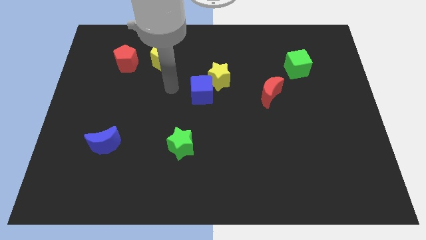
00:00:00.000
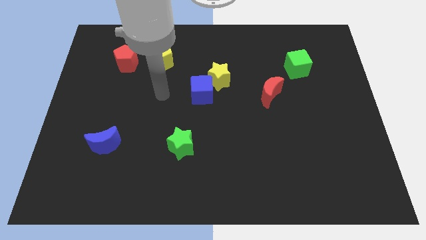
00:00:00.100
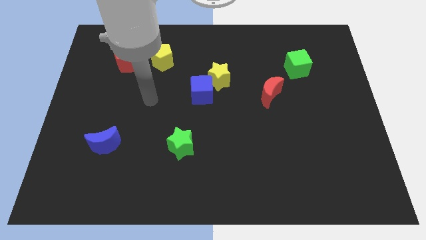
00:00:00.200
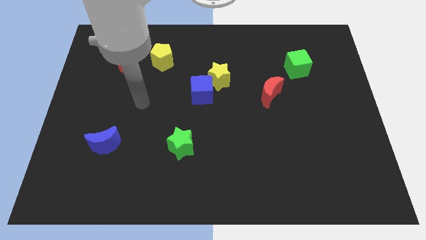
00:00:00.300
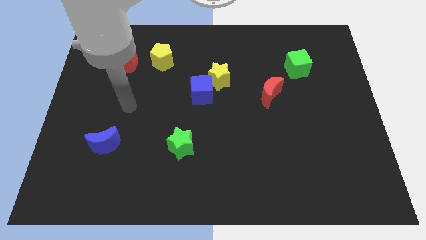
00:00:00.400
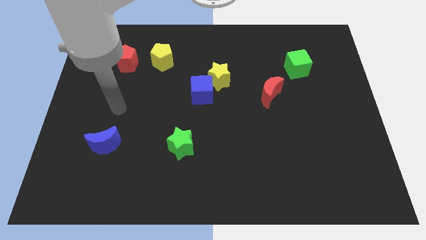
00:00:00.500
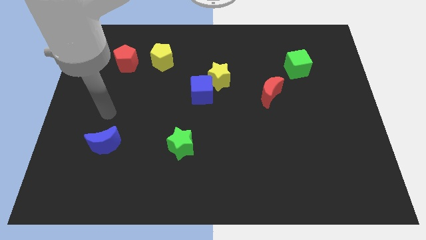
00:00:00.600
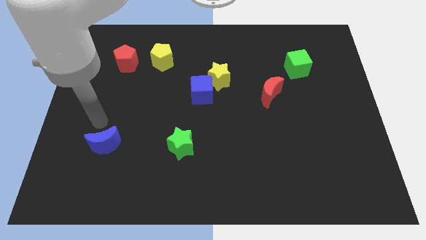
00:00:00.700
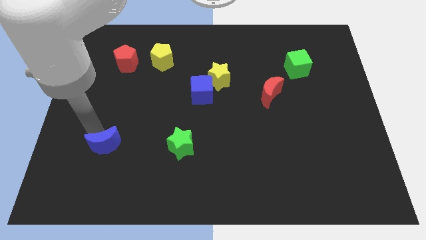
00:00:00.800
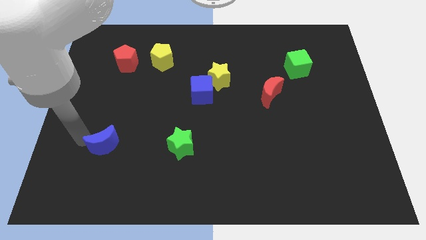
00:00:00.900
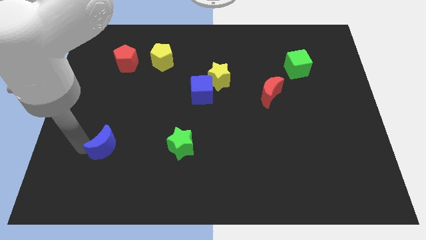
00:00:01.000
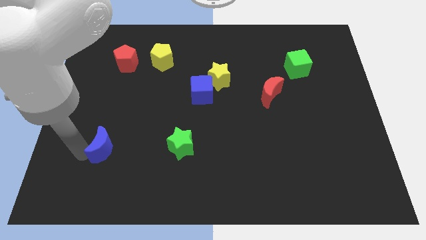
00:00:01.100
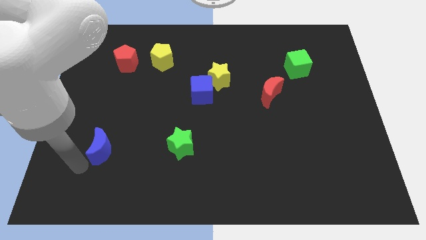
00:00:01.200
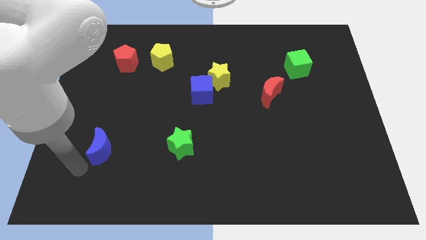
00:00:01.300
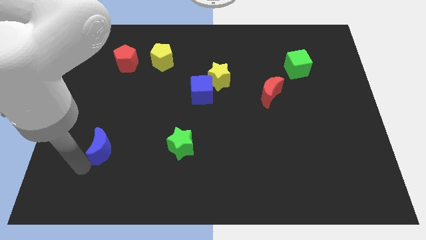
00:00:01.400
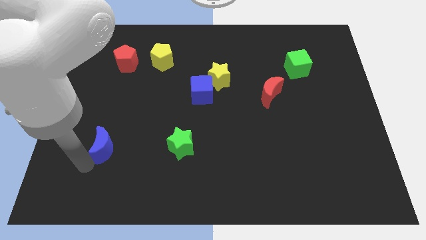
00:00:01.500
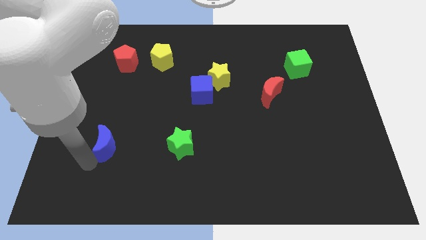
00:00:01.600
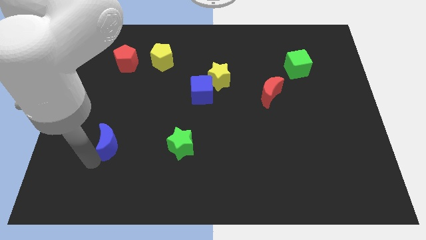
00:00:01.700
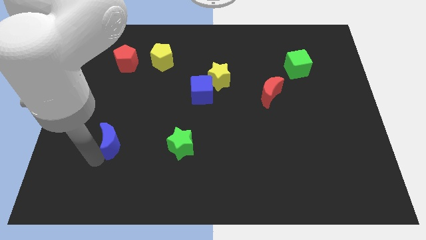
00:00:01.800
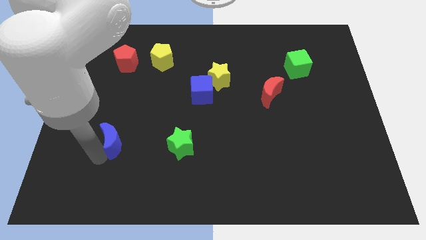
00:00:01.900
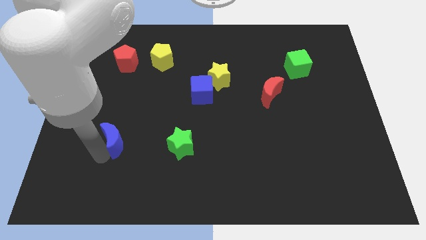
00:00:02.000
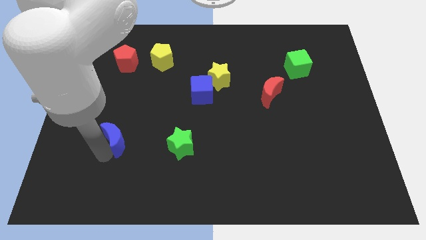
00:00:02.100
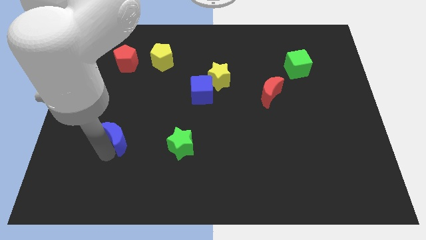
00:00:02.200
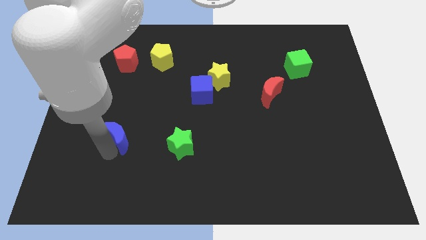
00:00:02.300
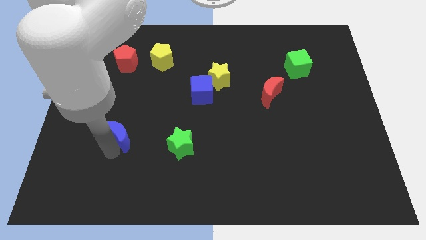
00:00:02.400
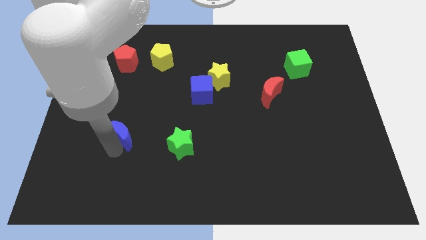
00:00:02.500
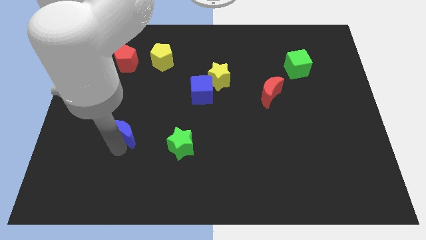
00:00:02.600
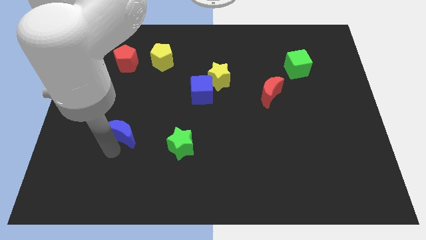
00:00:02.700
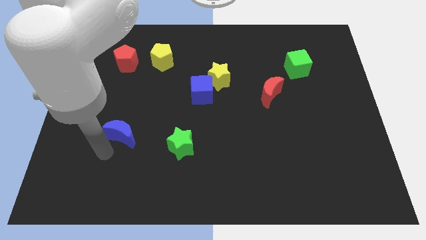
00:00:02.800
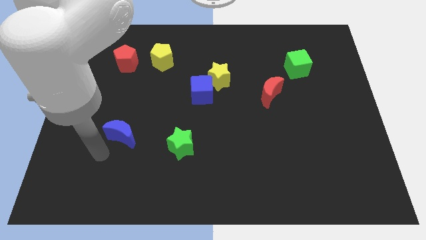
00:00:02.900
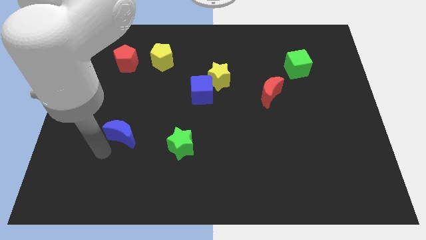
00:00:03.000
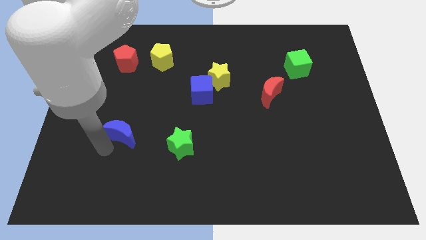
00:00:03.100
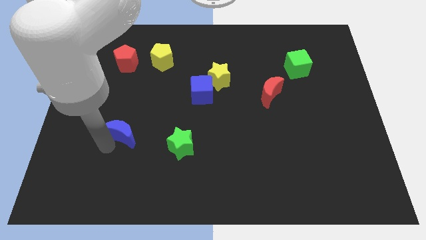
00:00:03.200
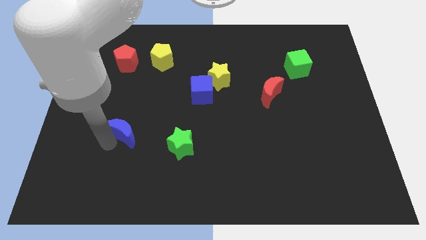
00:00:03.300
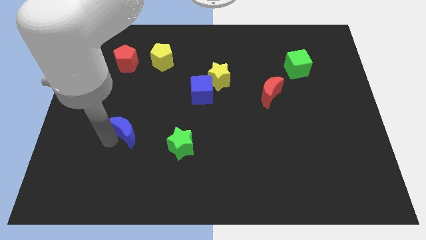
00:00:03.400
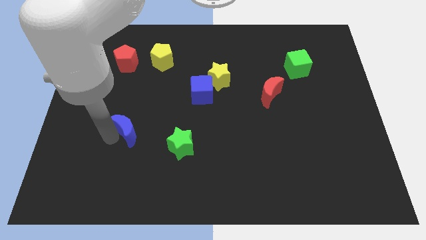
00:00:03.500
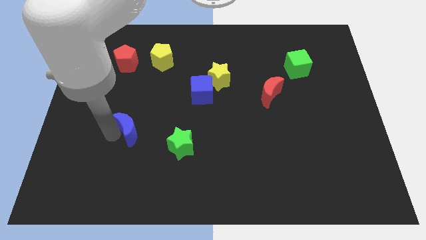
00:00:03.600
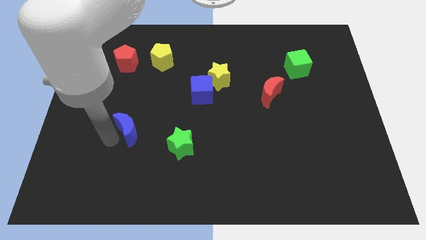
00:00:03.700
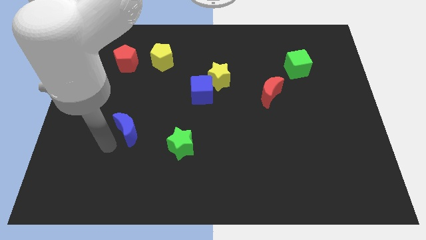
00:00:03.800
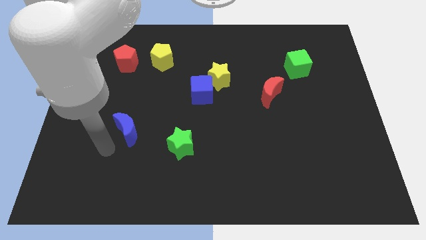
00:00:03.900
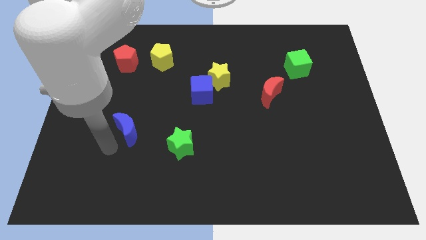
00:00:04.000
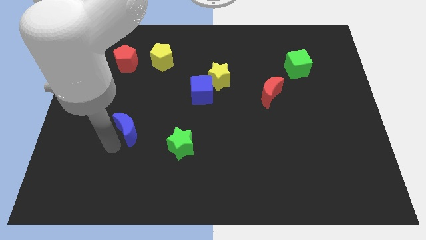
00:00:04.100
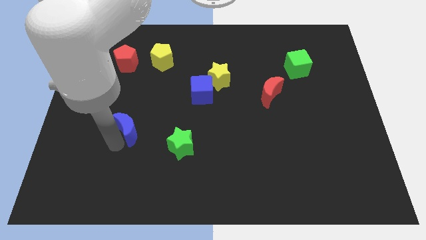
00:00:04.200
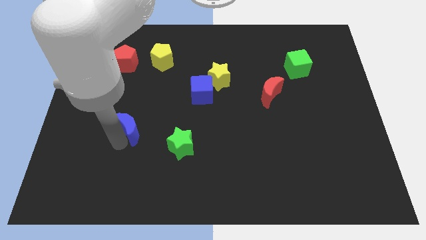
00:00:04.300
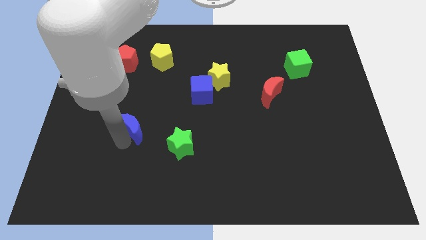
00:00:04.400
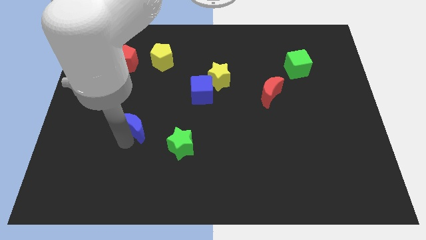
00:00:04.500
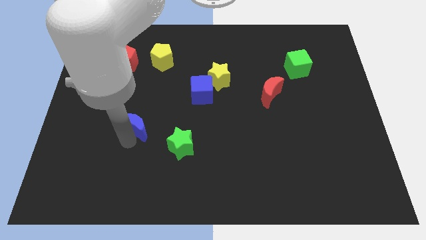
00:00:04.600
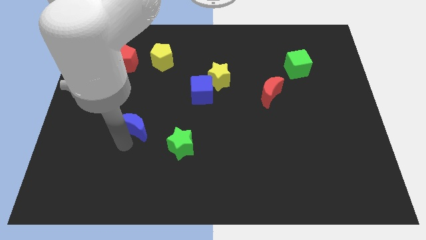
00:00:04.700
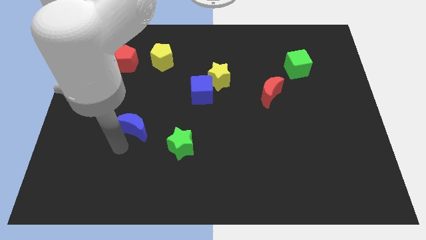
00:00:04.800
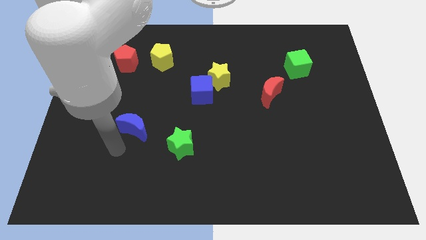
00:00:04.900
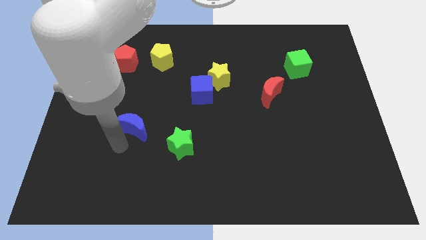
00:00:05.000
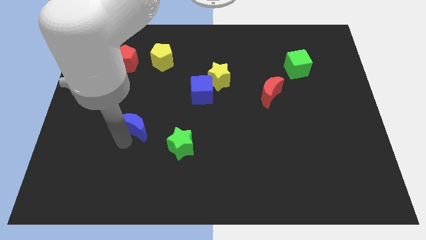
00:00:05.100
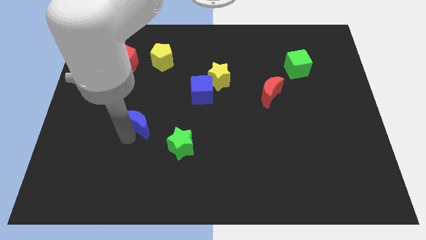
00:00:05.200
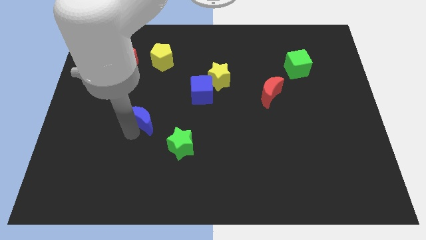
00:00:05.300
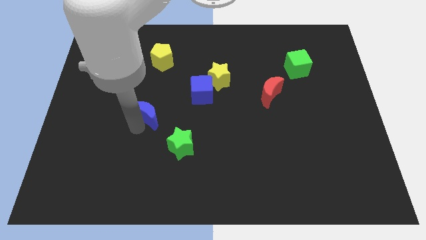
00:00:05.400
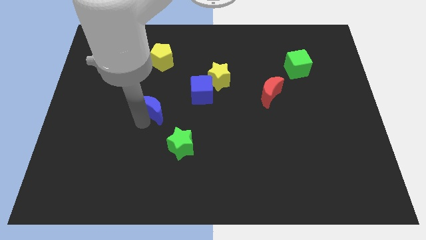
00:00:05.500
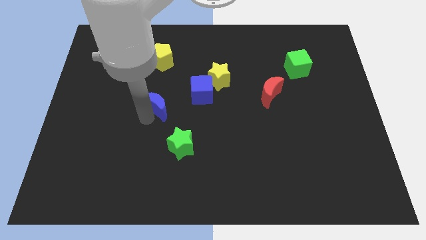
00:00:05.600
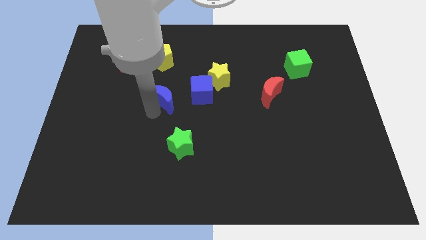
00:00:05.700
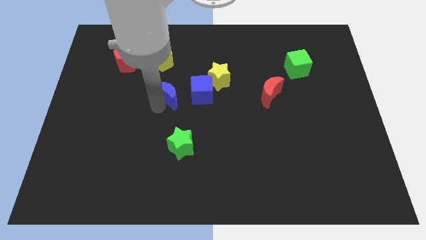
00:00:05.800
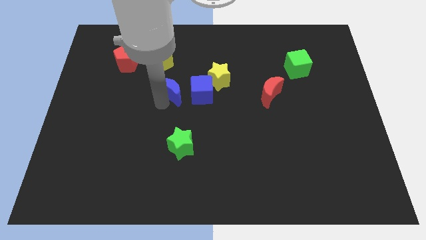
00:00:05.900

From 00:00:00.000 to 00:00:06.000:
slide the blue moon up and right diagonally

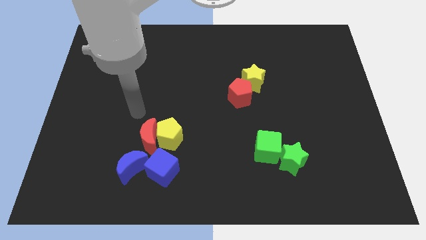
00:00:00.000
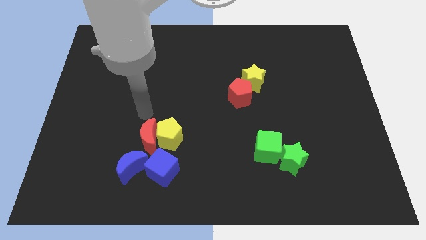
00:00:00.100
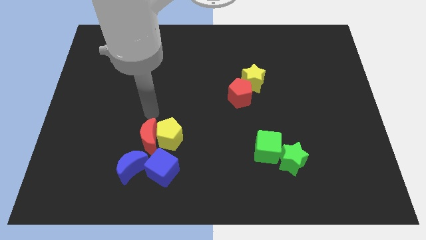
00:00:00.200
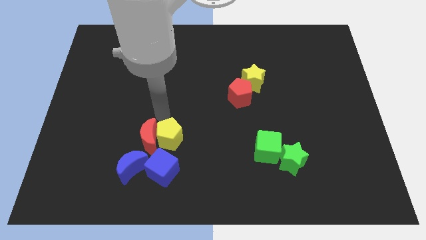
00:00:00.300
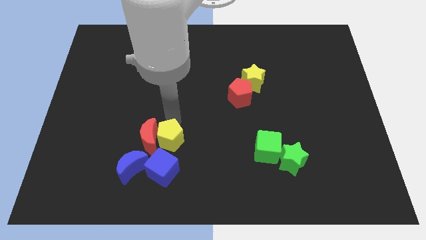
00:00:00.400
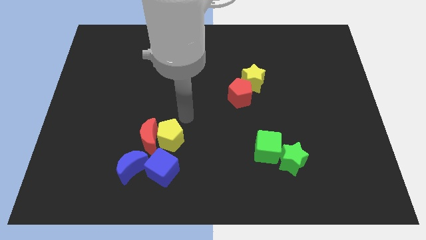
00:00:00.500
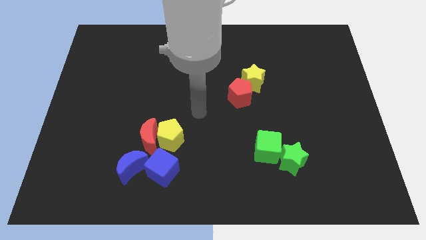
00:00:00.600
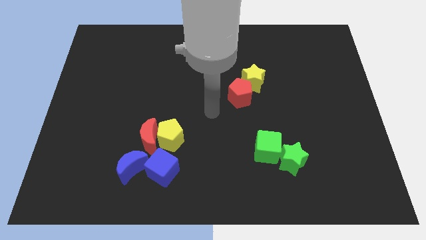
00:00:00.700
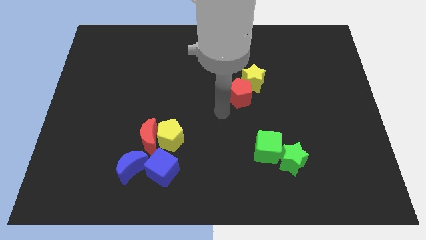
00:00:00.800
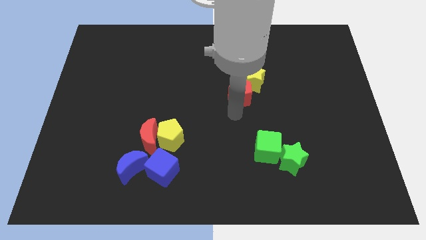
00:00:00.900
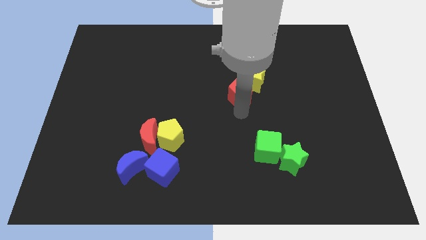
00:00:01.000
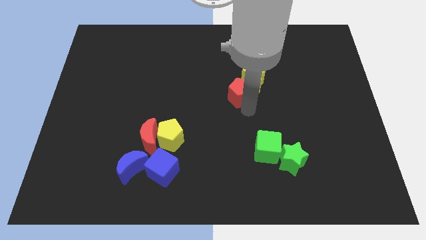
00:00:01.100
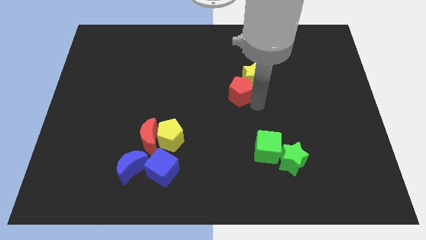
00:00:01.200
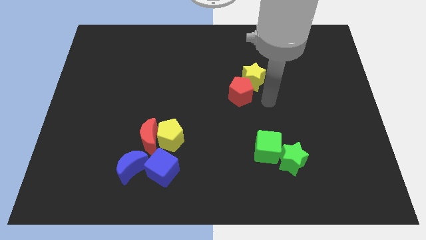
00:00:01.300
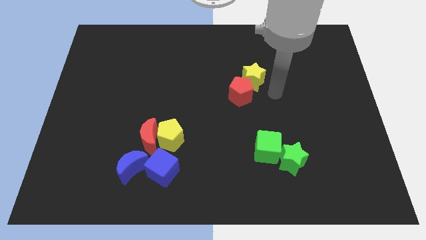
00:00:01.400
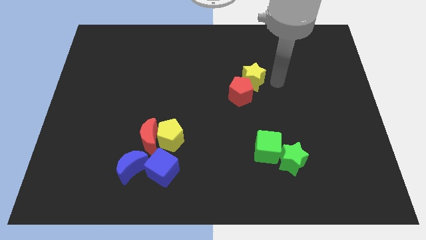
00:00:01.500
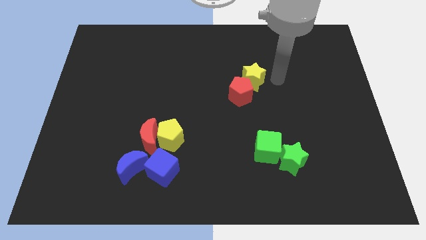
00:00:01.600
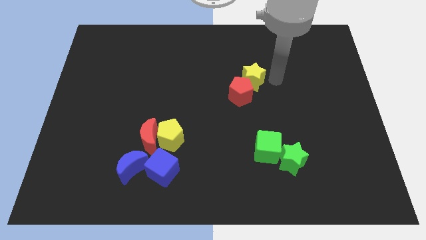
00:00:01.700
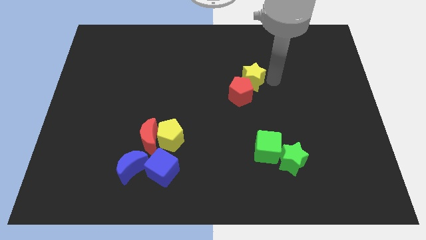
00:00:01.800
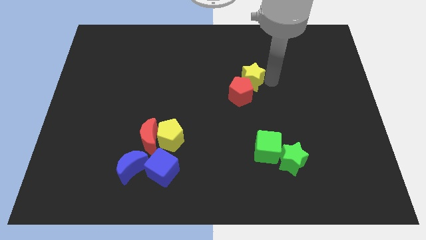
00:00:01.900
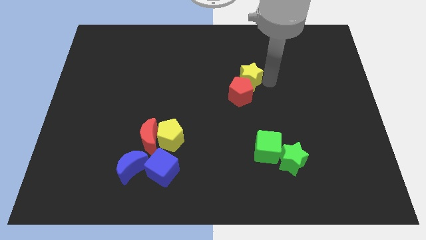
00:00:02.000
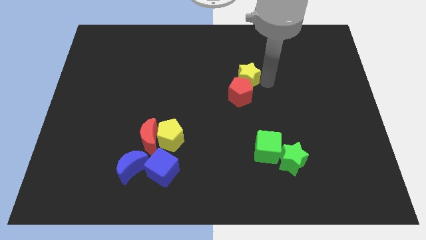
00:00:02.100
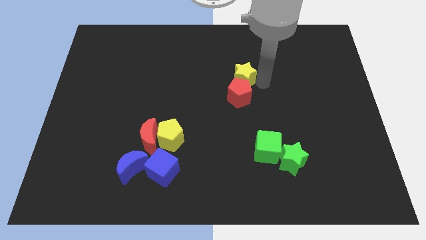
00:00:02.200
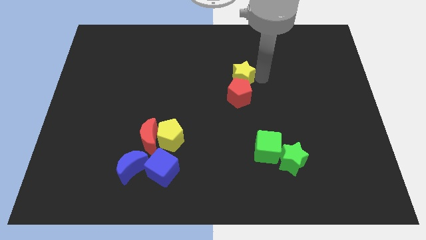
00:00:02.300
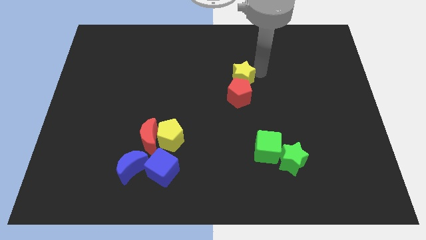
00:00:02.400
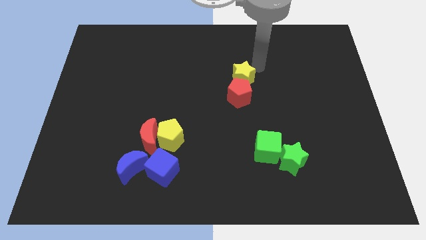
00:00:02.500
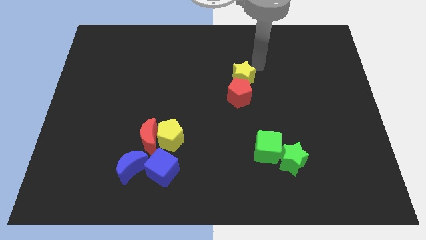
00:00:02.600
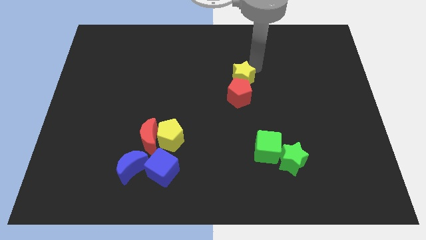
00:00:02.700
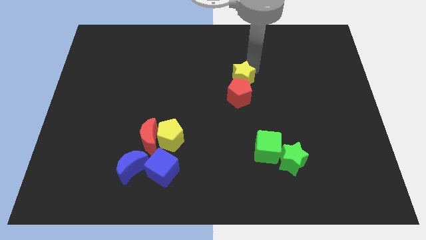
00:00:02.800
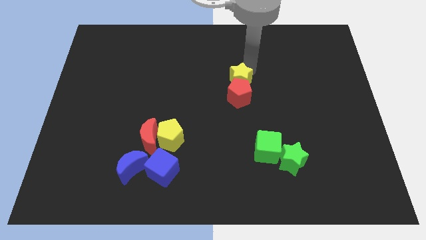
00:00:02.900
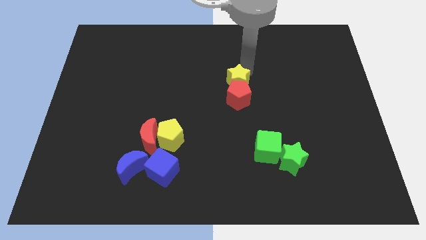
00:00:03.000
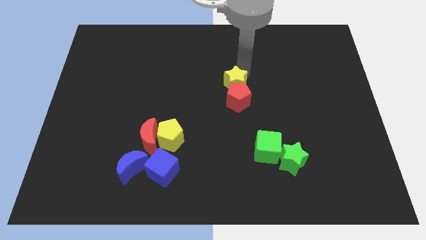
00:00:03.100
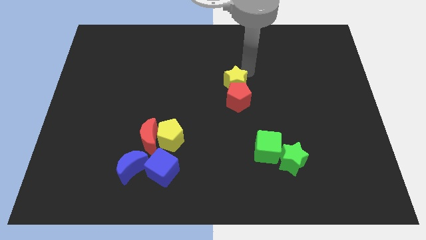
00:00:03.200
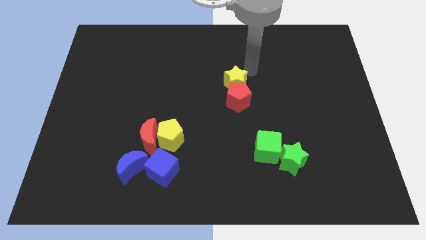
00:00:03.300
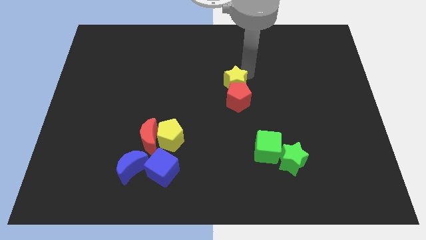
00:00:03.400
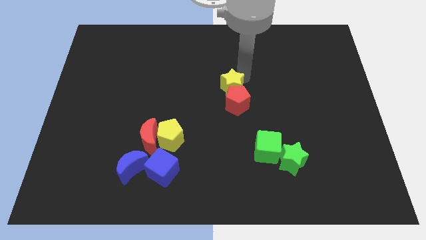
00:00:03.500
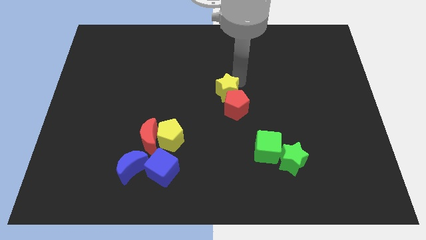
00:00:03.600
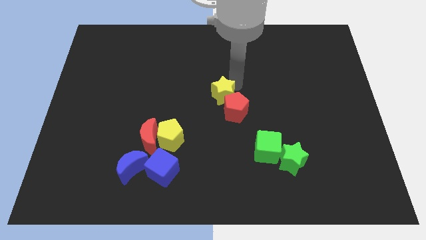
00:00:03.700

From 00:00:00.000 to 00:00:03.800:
push the yellow star diagonally downwards and to the left a little bit
